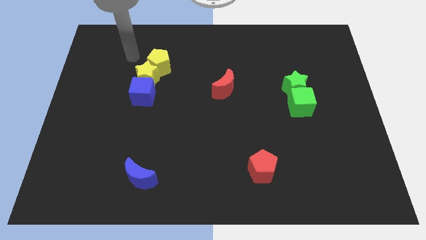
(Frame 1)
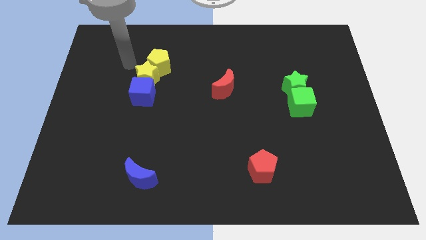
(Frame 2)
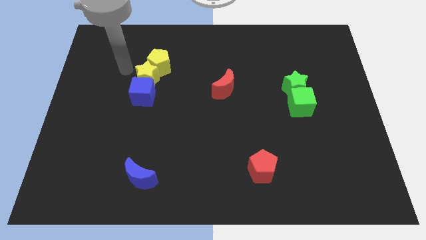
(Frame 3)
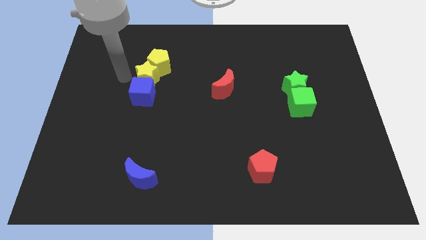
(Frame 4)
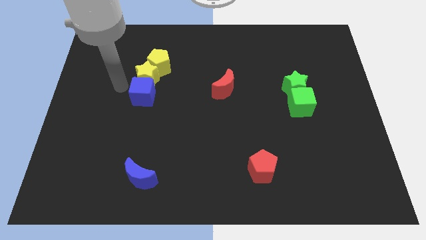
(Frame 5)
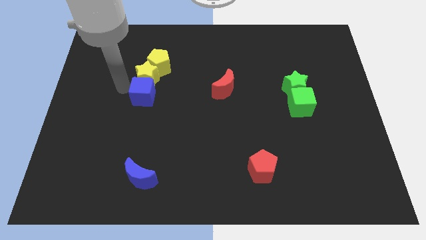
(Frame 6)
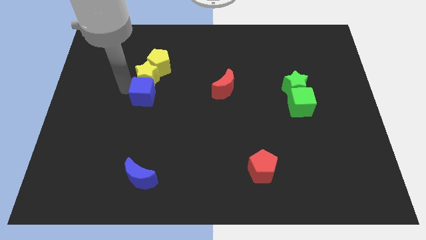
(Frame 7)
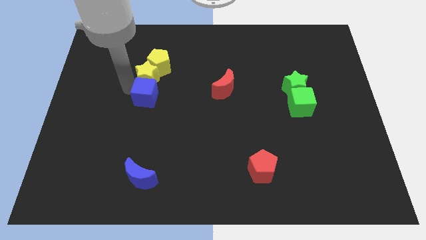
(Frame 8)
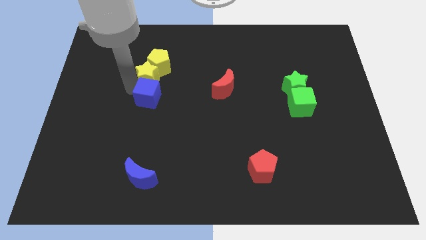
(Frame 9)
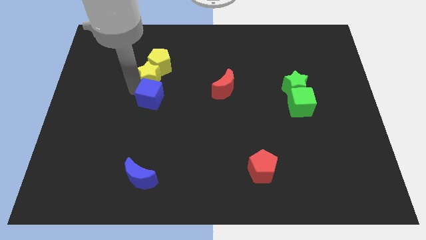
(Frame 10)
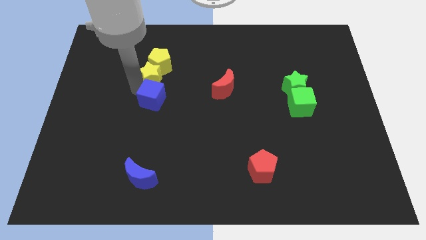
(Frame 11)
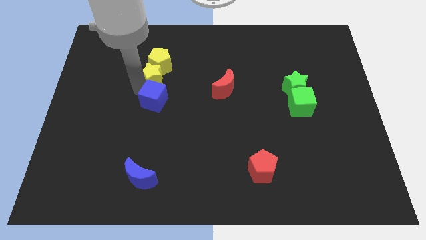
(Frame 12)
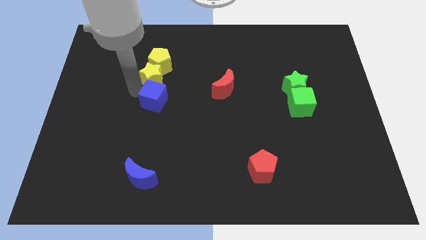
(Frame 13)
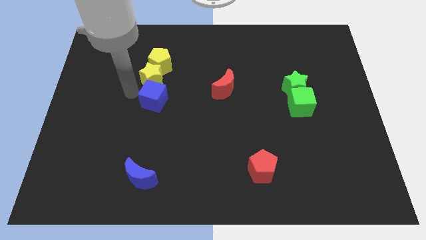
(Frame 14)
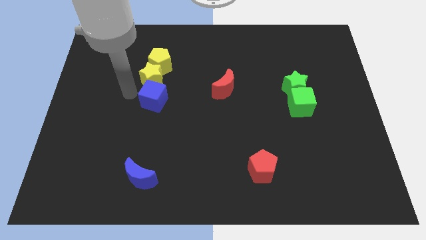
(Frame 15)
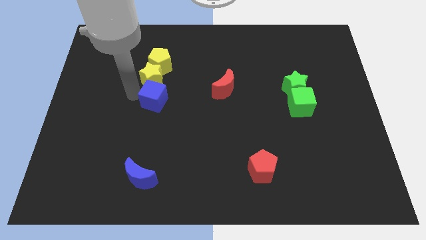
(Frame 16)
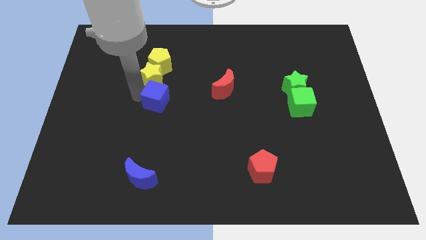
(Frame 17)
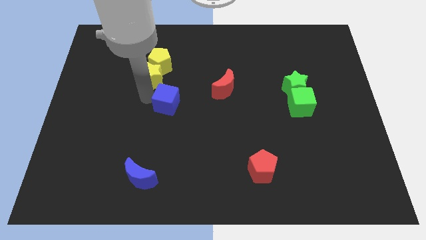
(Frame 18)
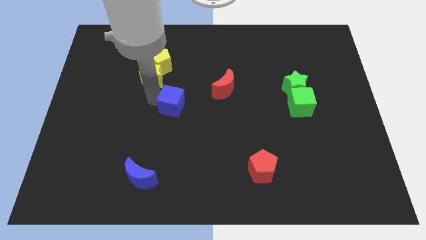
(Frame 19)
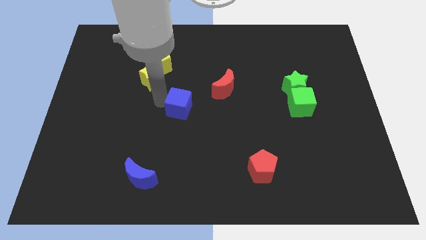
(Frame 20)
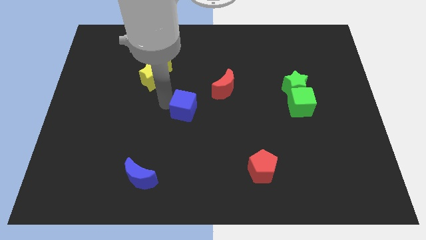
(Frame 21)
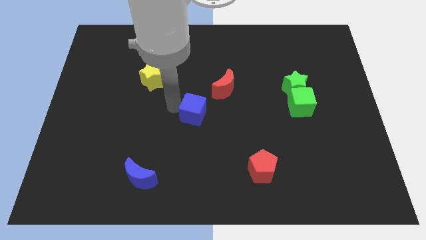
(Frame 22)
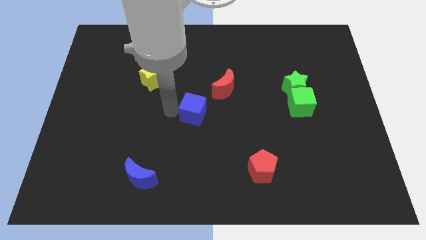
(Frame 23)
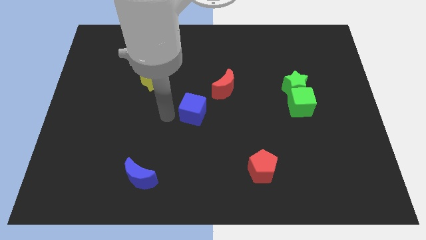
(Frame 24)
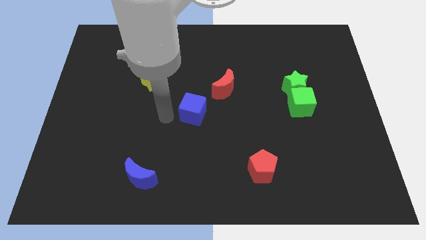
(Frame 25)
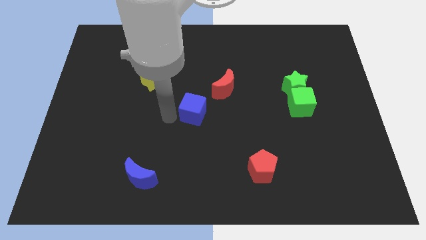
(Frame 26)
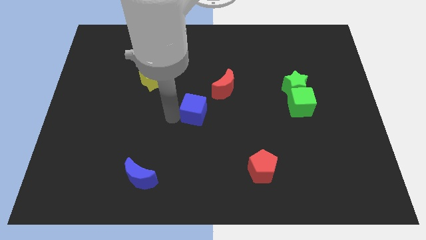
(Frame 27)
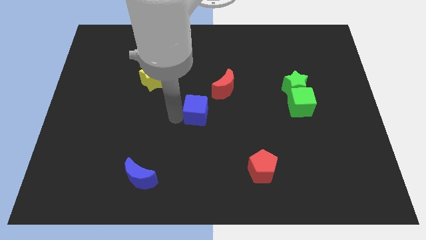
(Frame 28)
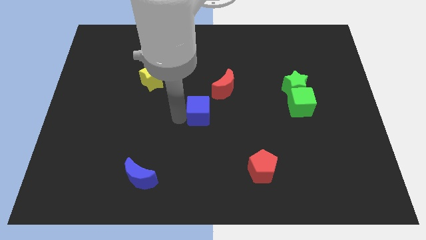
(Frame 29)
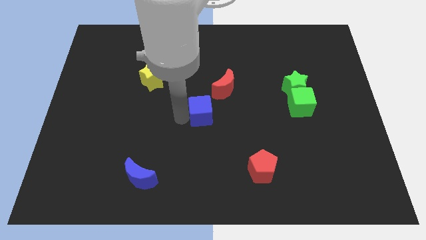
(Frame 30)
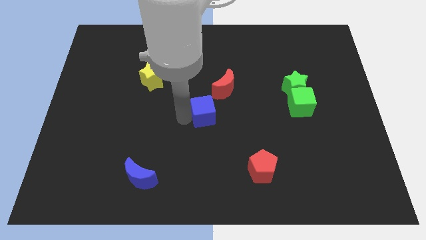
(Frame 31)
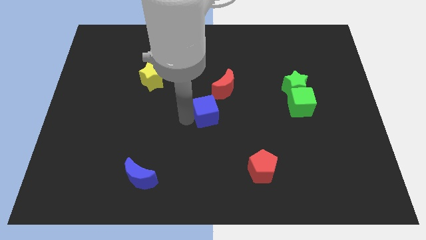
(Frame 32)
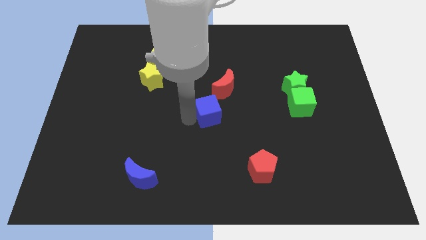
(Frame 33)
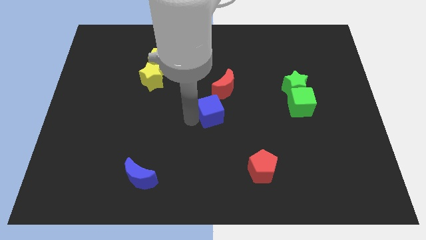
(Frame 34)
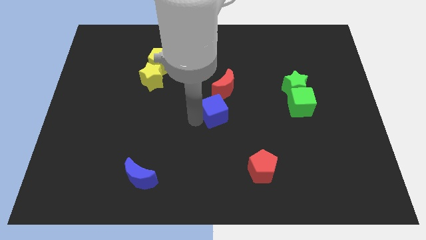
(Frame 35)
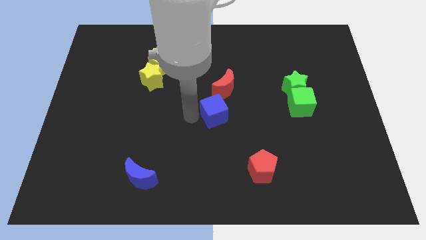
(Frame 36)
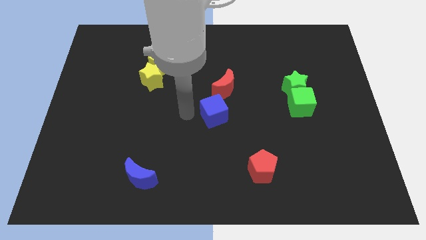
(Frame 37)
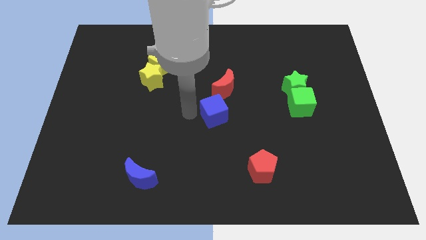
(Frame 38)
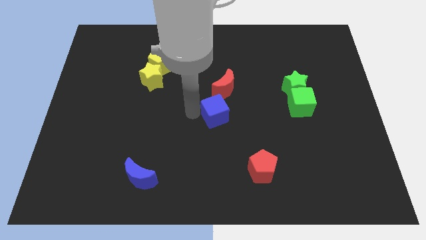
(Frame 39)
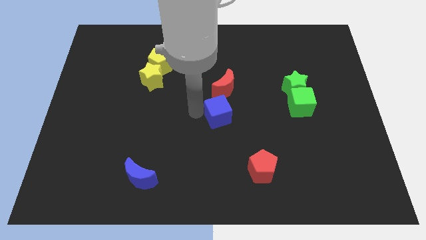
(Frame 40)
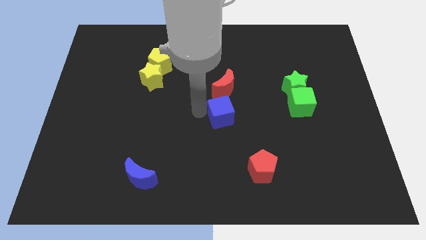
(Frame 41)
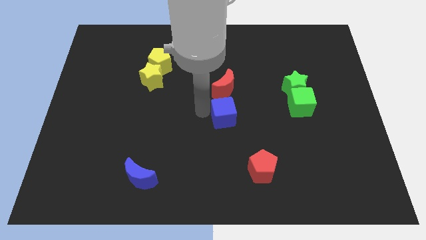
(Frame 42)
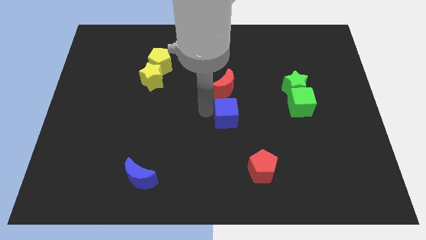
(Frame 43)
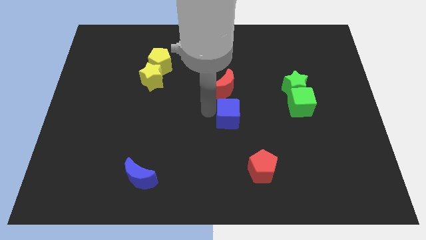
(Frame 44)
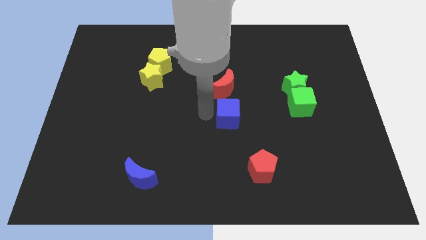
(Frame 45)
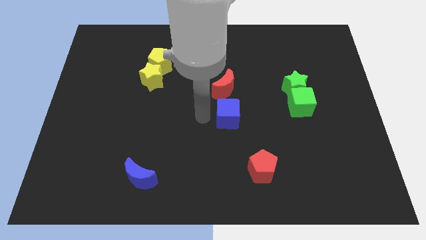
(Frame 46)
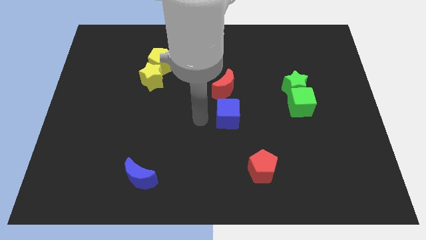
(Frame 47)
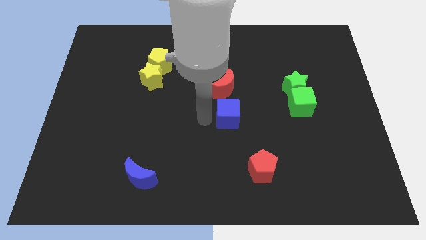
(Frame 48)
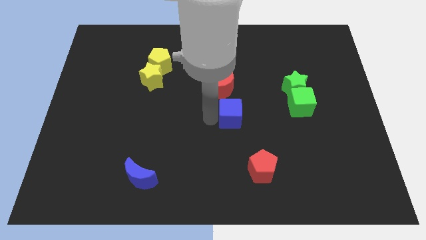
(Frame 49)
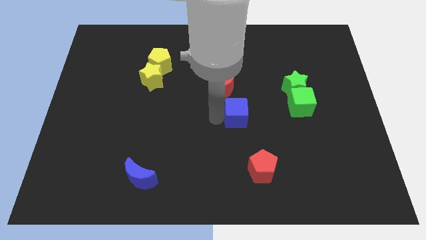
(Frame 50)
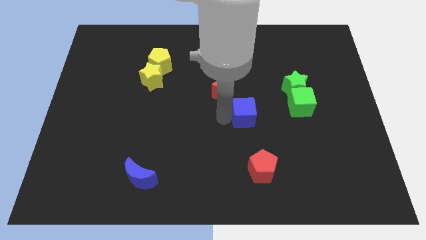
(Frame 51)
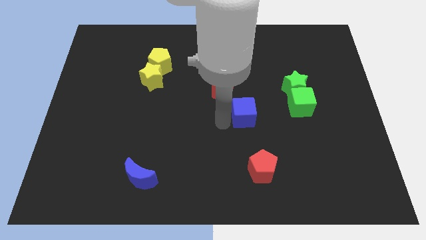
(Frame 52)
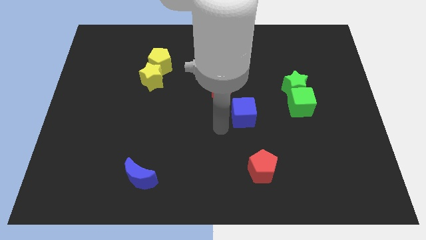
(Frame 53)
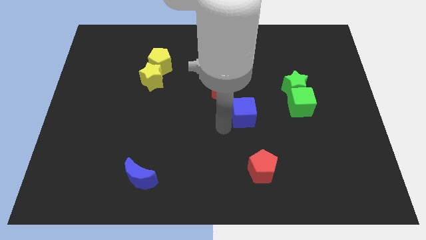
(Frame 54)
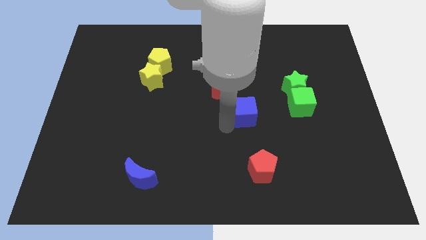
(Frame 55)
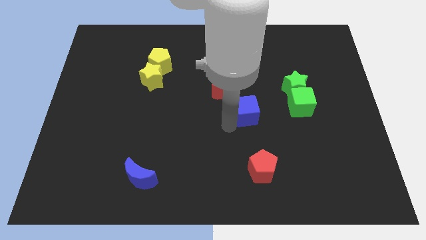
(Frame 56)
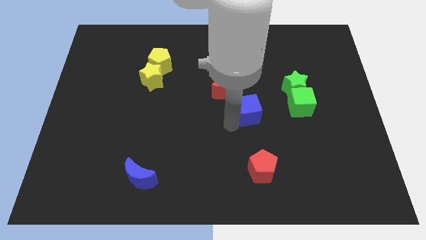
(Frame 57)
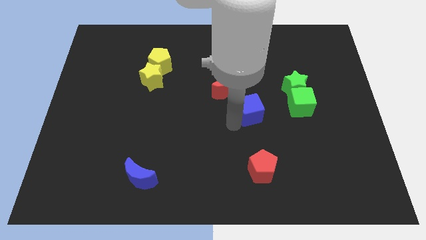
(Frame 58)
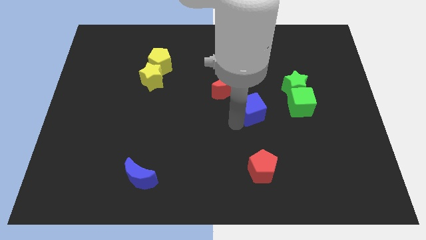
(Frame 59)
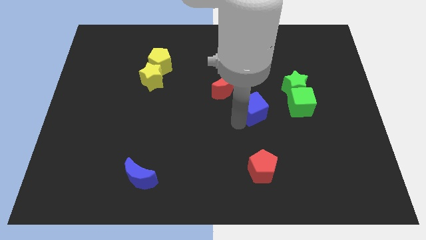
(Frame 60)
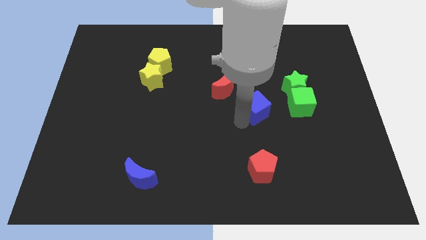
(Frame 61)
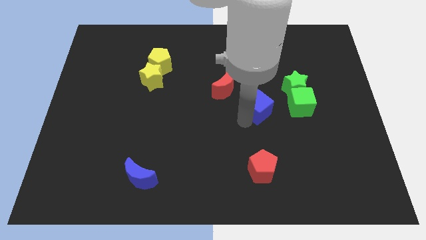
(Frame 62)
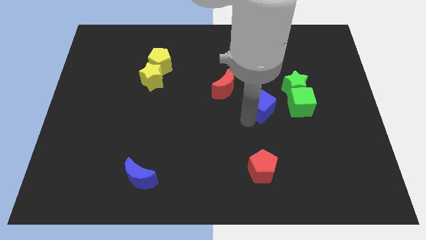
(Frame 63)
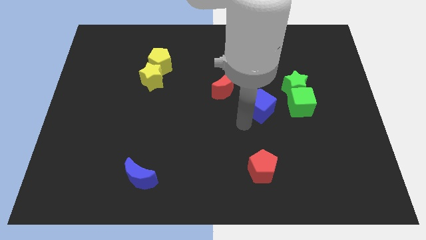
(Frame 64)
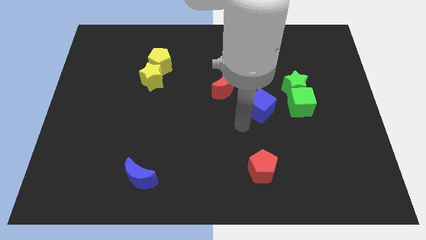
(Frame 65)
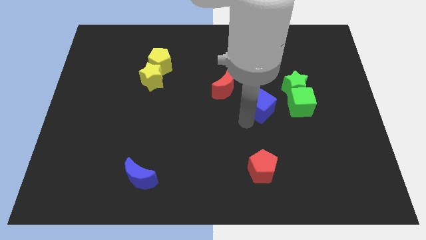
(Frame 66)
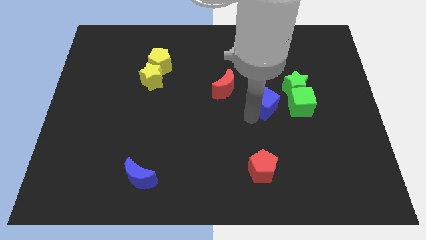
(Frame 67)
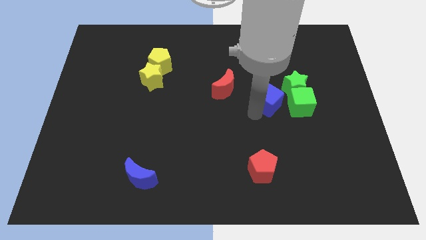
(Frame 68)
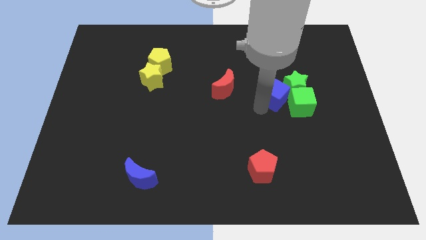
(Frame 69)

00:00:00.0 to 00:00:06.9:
move the blue cube next to the green star

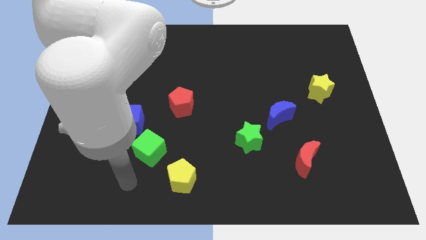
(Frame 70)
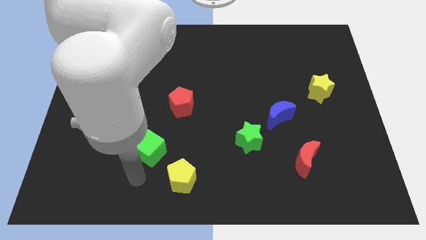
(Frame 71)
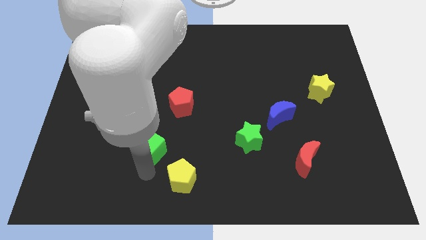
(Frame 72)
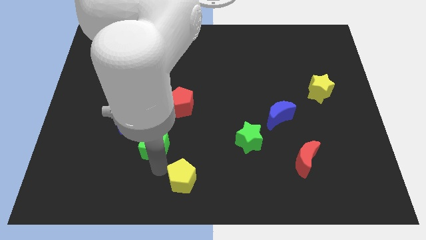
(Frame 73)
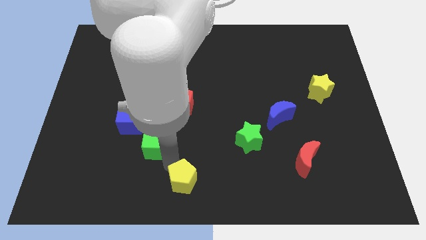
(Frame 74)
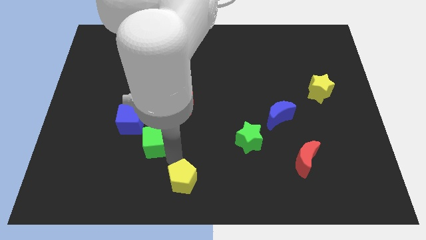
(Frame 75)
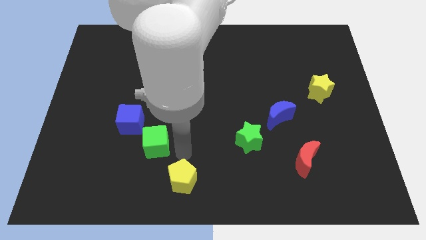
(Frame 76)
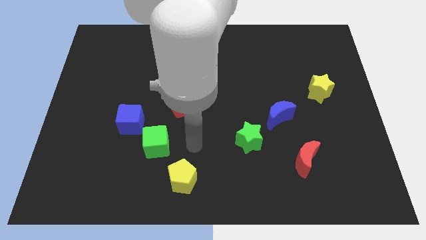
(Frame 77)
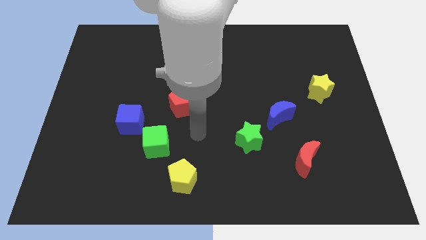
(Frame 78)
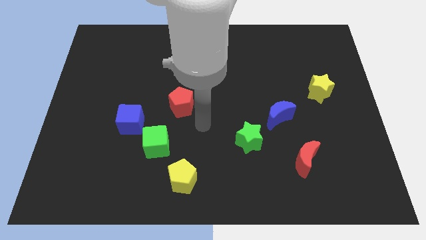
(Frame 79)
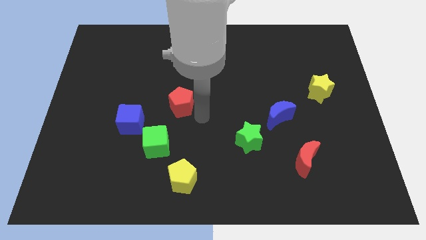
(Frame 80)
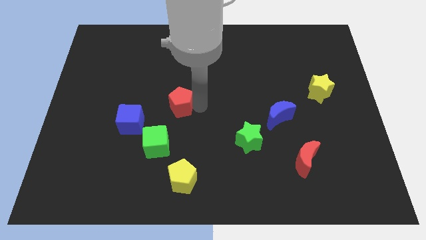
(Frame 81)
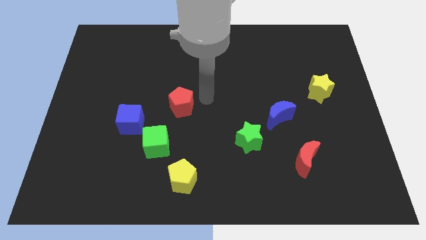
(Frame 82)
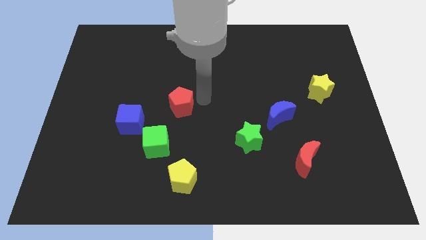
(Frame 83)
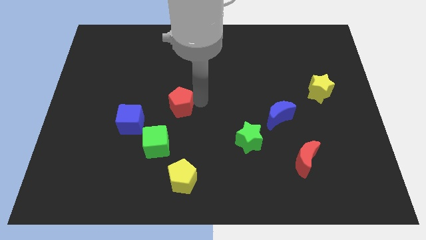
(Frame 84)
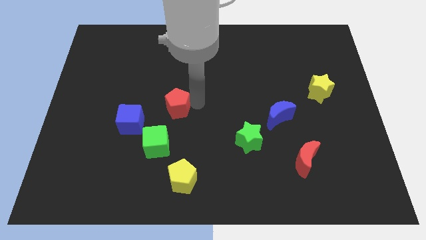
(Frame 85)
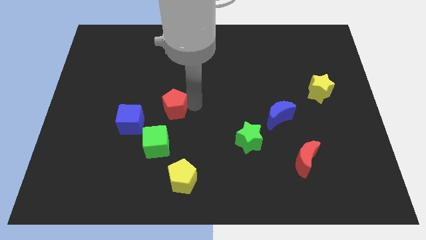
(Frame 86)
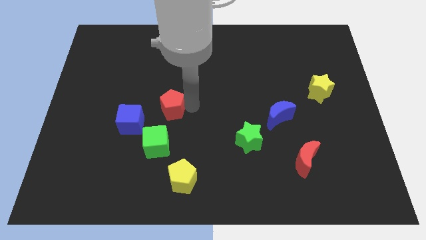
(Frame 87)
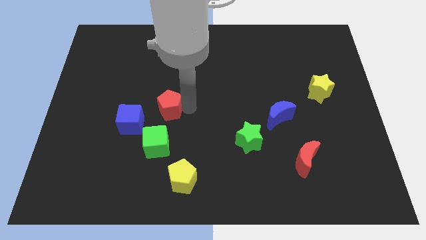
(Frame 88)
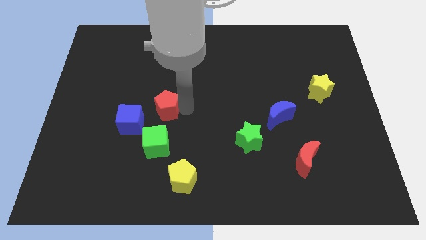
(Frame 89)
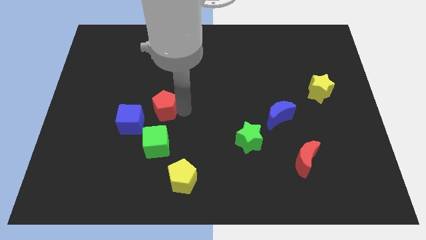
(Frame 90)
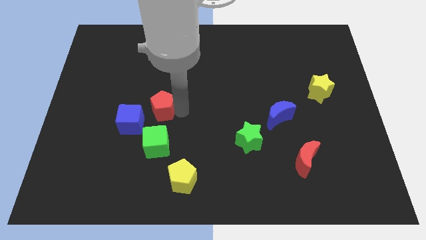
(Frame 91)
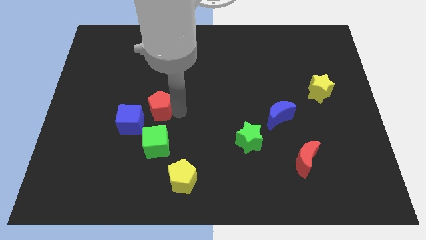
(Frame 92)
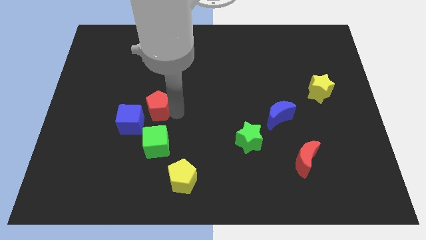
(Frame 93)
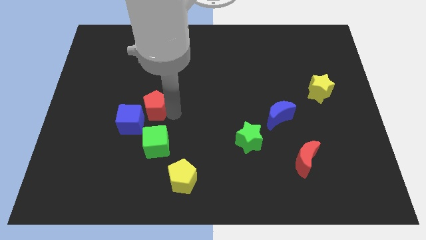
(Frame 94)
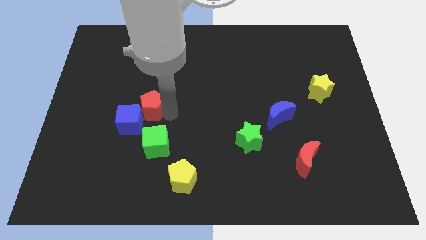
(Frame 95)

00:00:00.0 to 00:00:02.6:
push the red pentagon close to the blue cube
